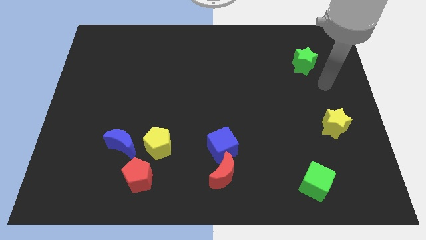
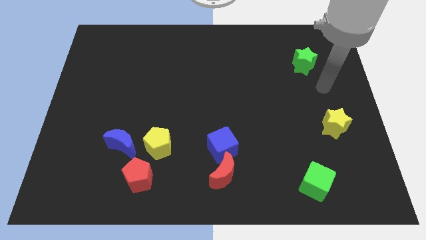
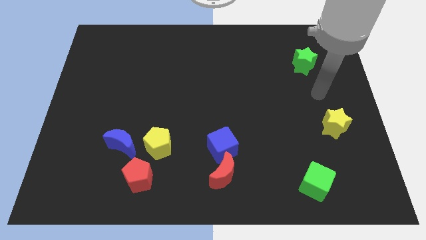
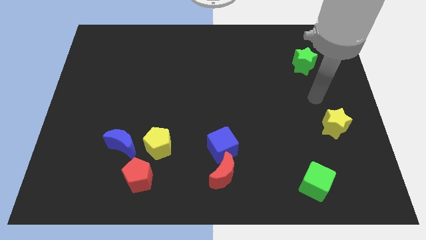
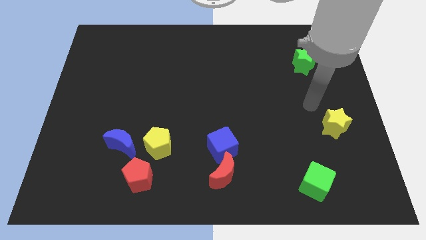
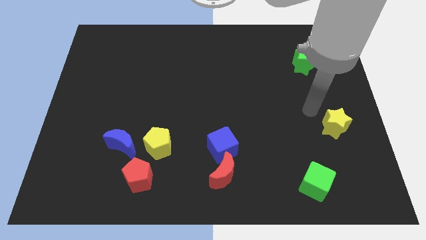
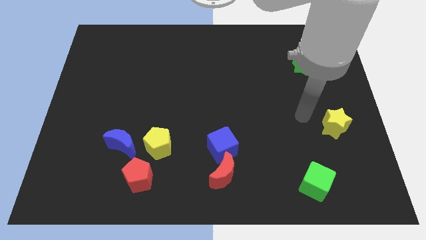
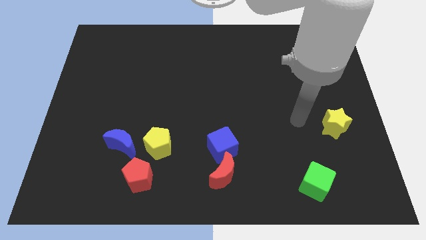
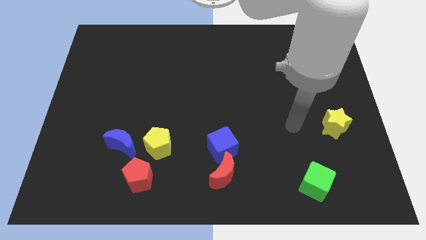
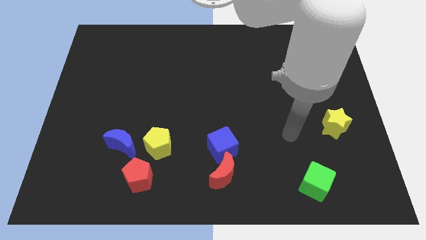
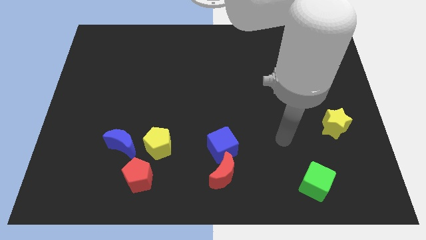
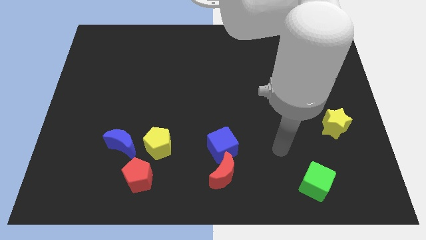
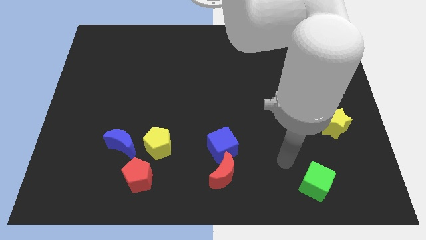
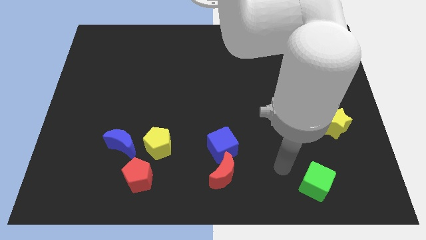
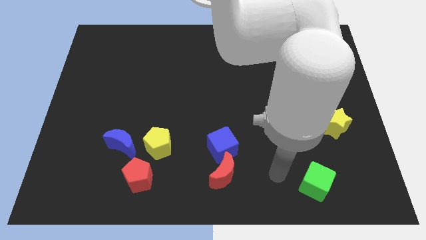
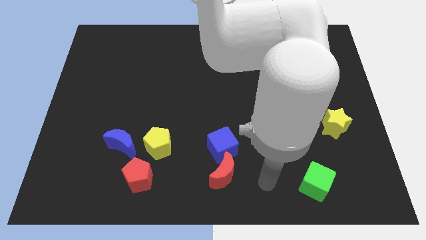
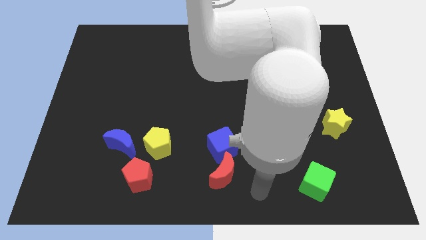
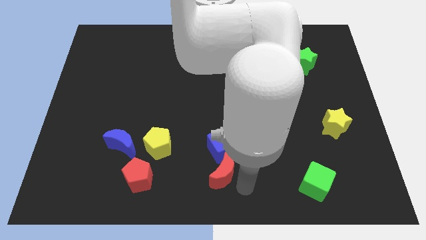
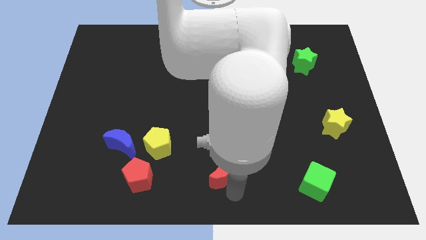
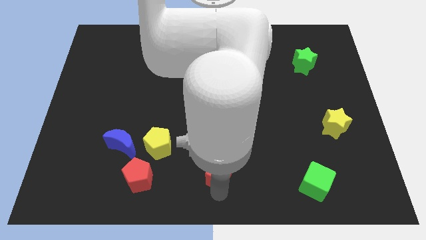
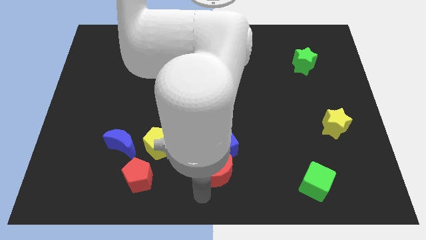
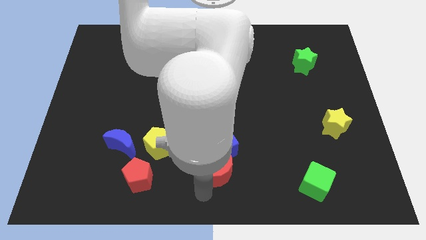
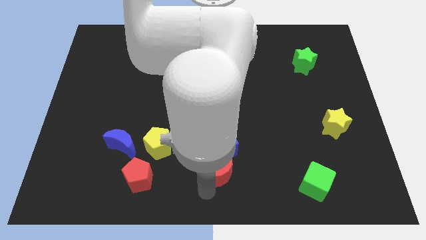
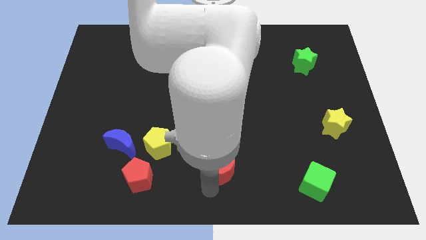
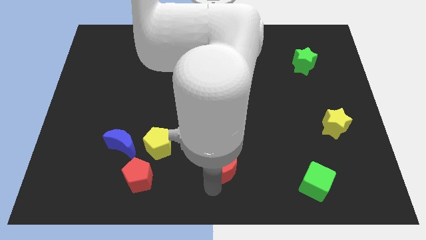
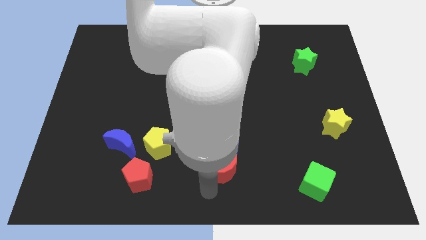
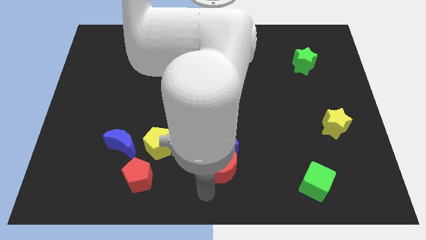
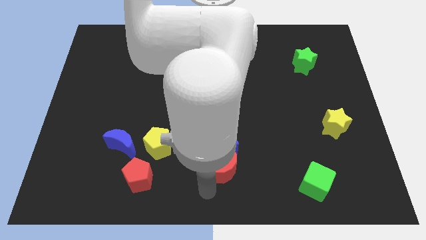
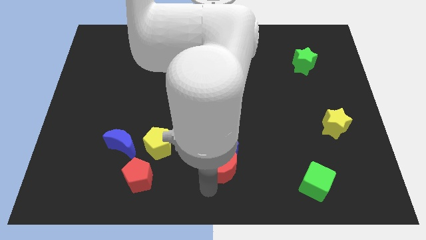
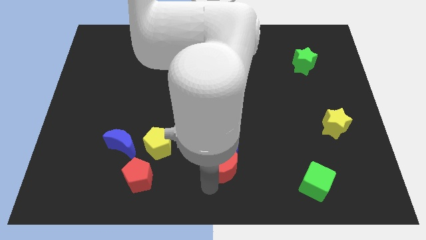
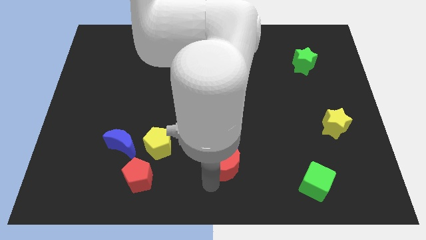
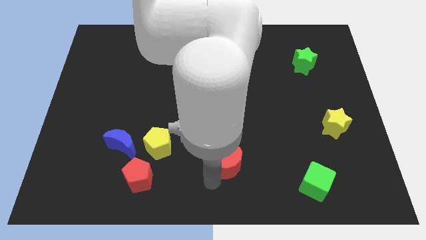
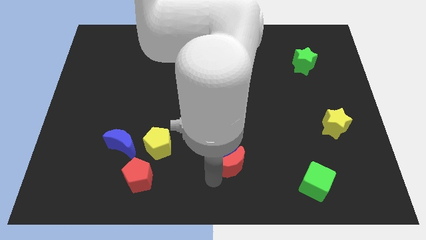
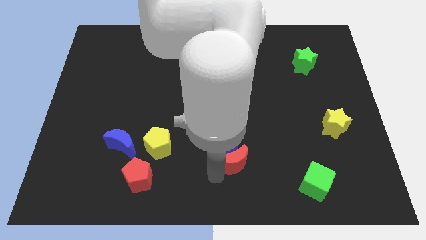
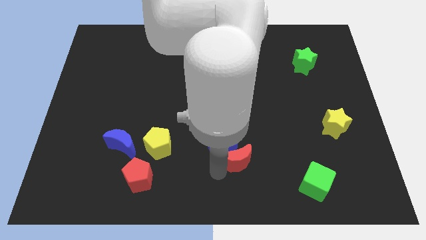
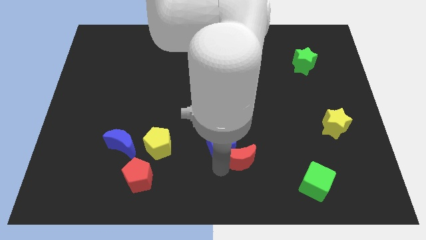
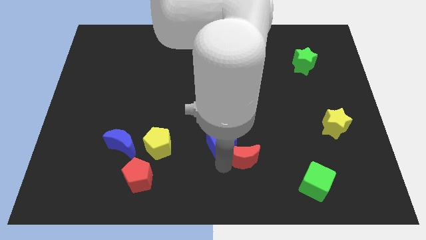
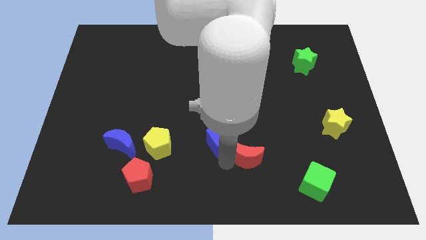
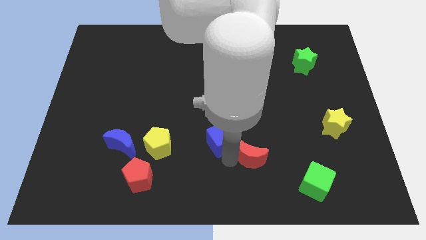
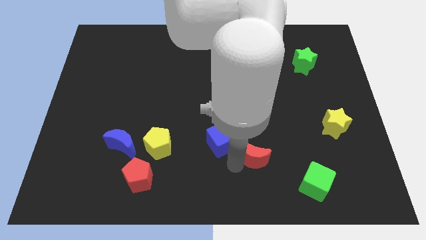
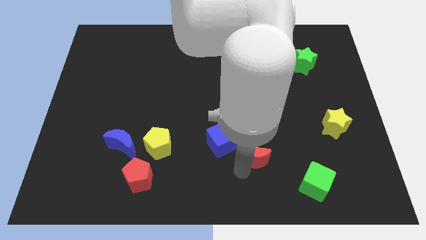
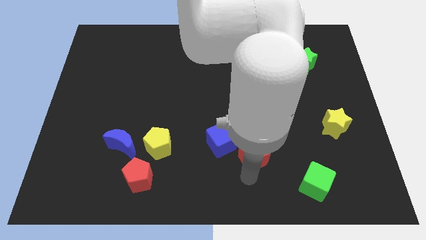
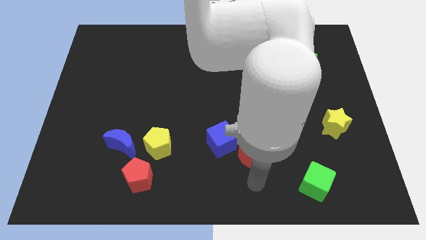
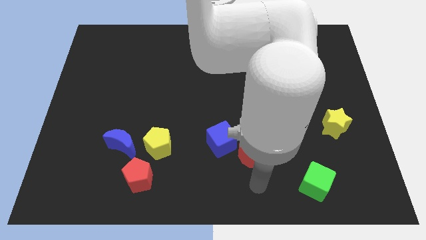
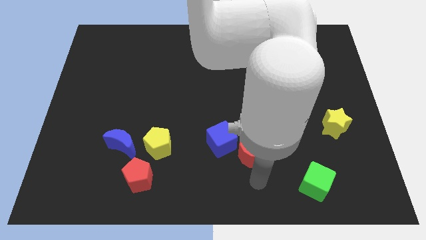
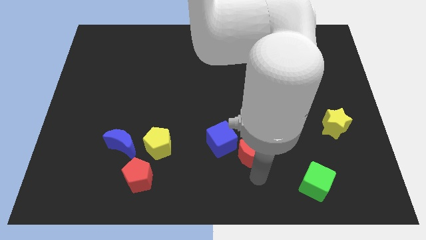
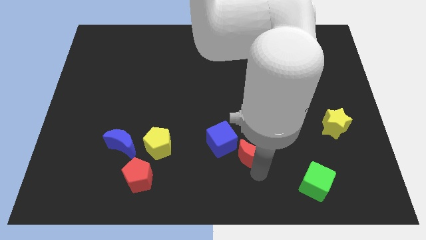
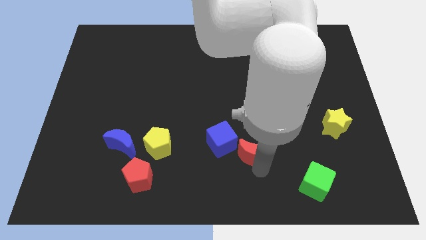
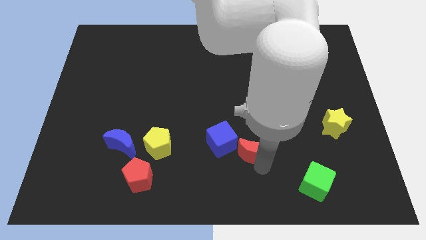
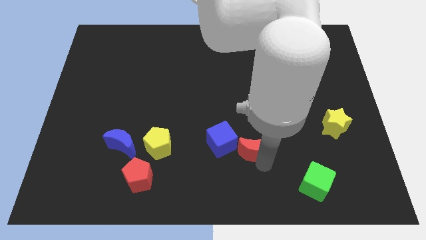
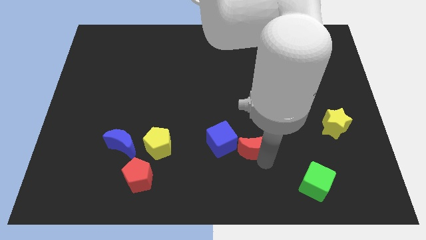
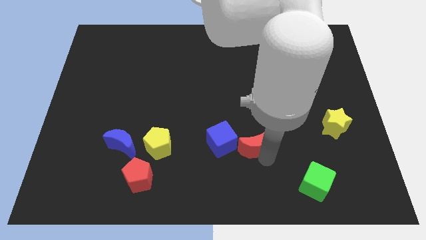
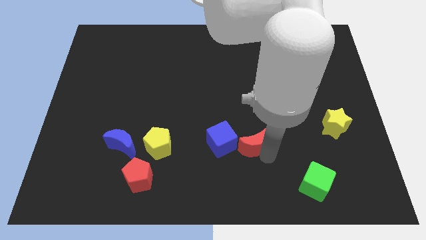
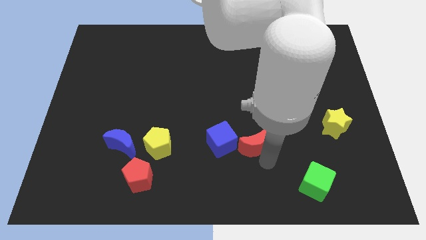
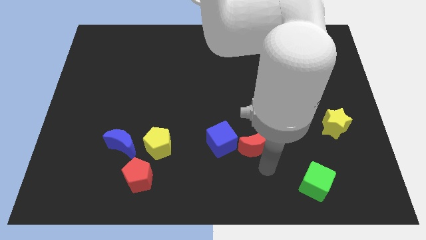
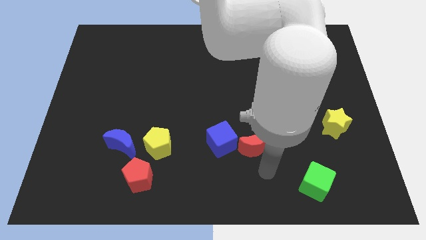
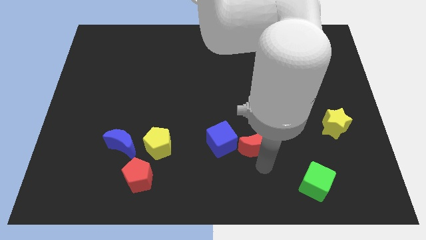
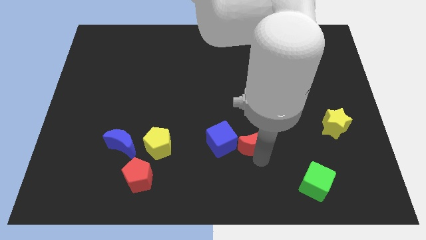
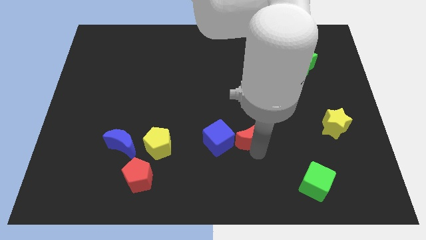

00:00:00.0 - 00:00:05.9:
slide the red moon diagonally up and to the right of the blue cube

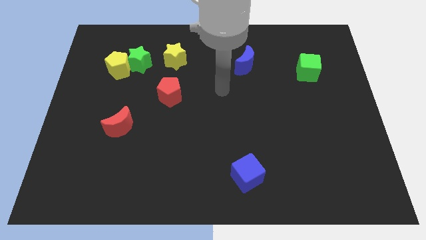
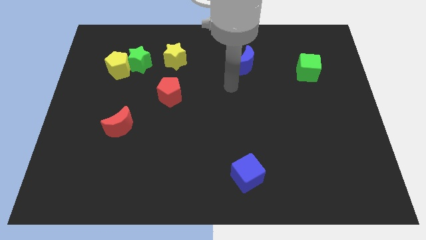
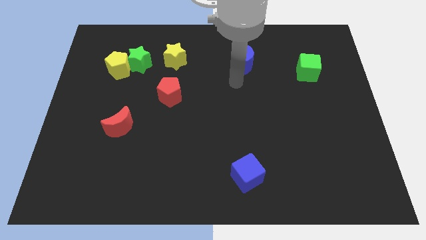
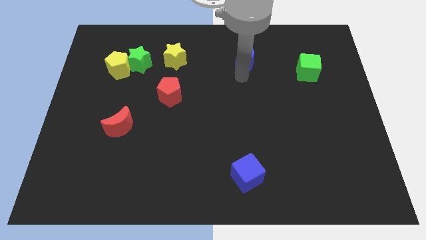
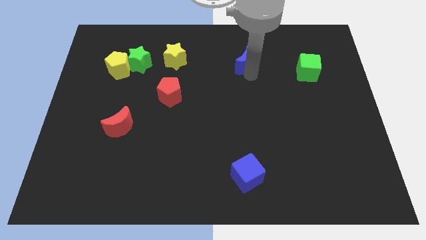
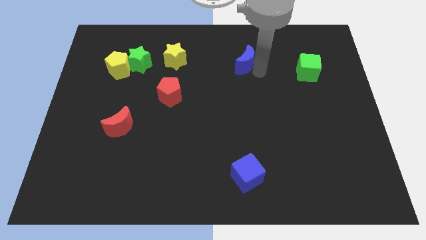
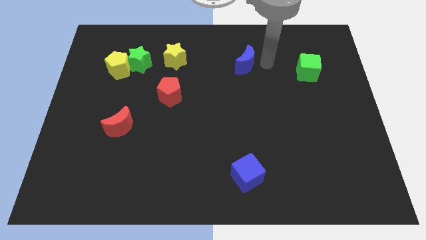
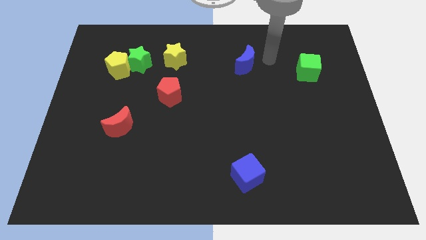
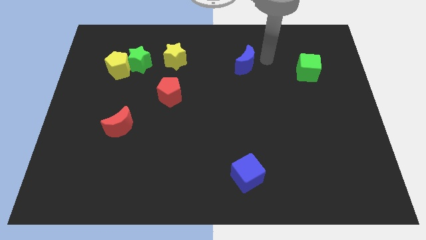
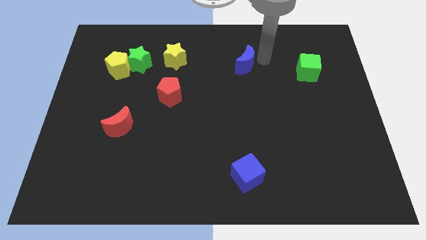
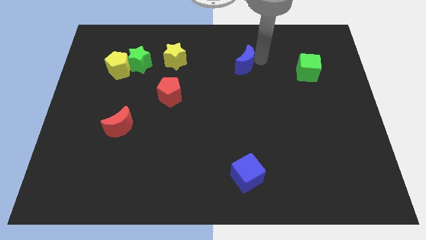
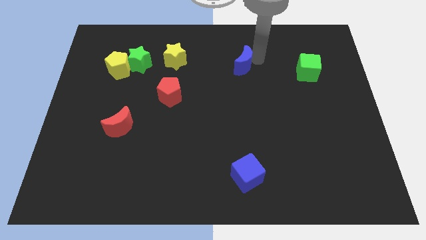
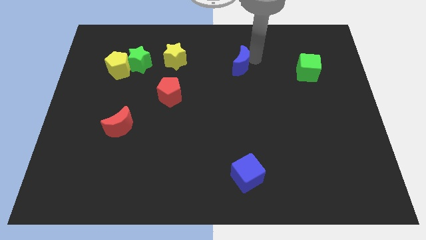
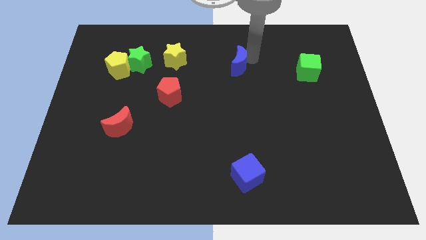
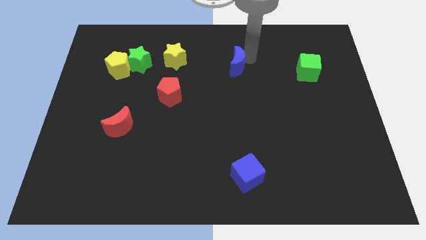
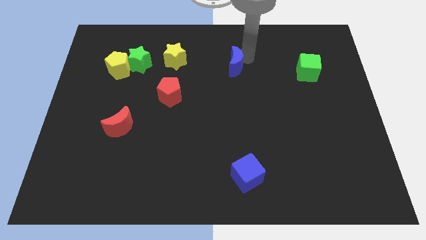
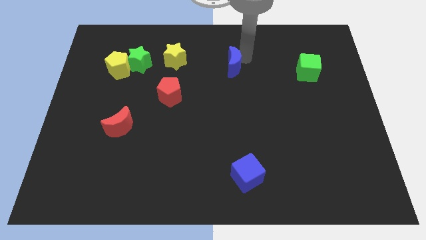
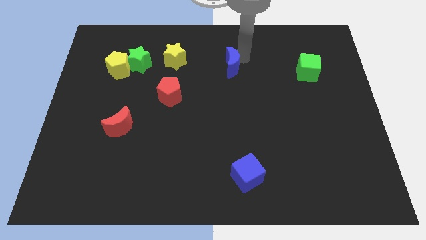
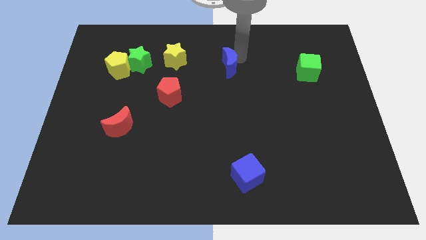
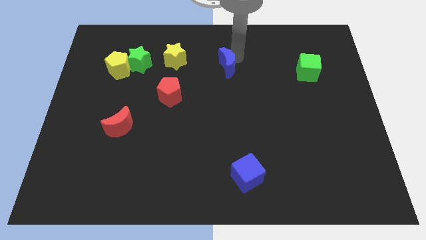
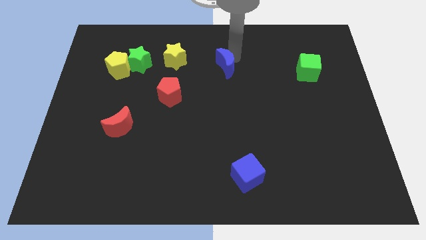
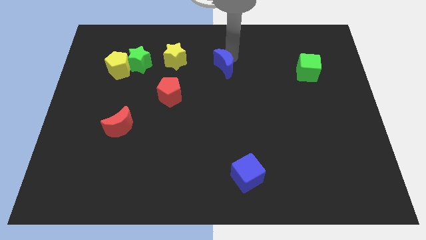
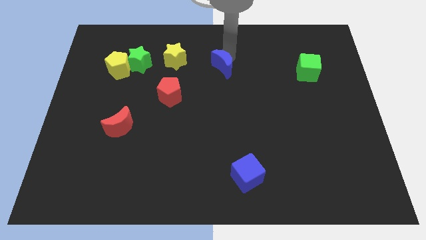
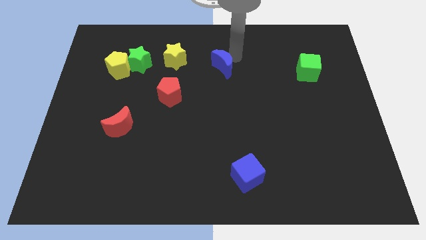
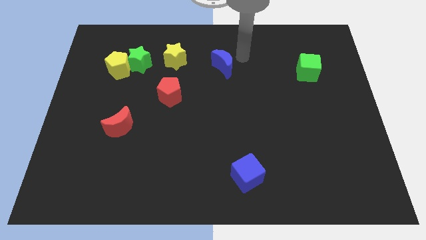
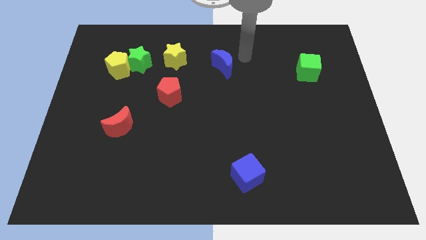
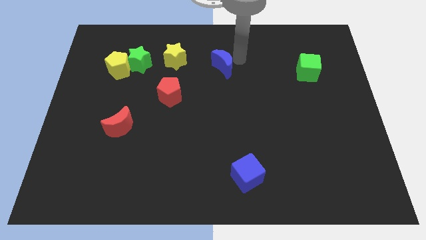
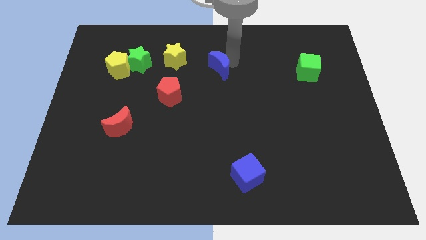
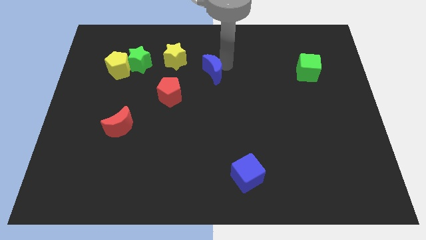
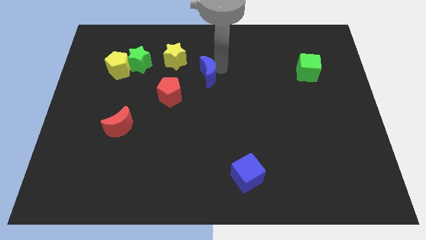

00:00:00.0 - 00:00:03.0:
push the blue moon to the top right side of the red pentagon
